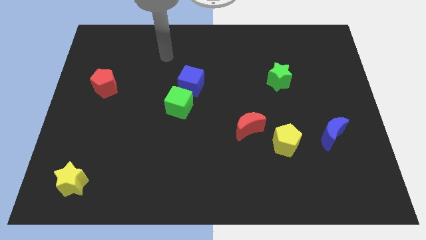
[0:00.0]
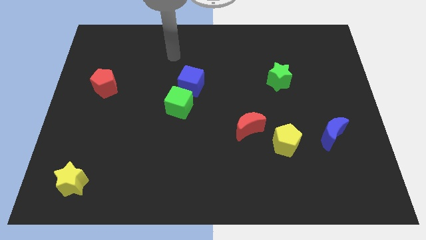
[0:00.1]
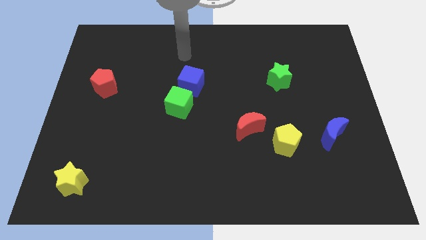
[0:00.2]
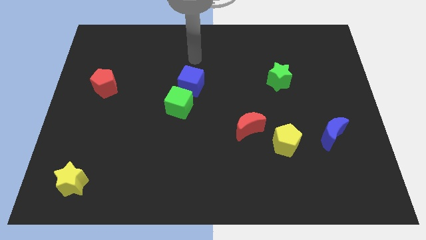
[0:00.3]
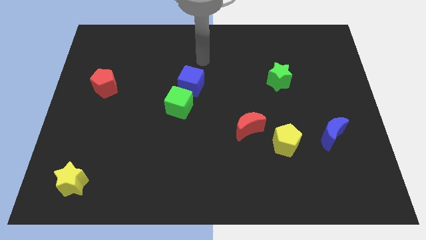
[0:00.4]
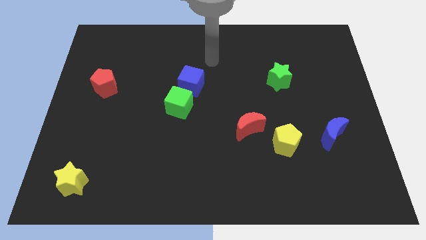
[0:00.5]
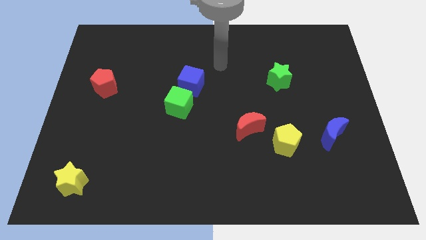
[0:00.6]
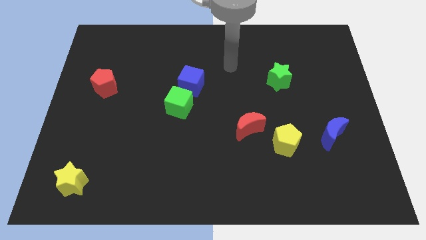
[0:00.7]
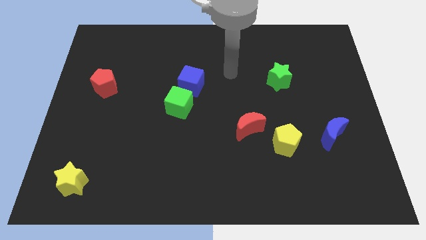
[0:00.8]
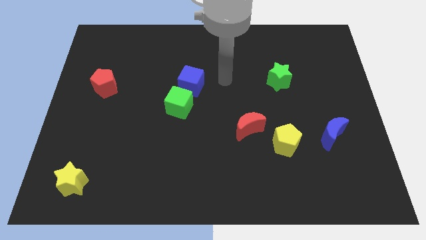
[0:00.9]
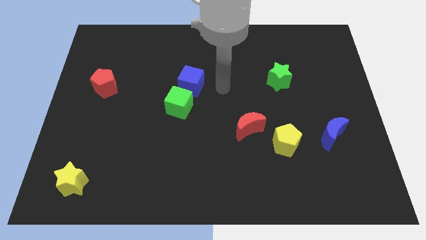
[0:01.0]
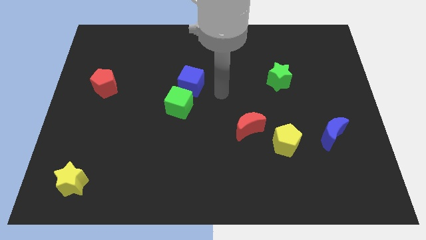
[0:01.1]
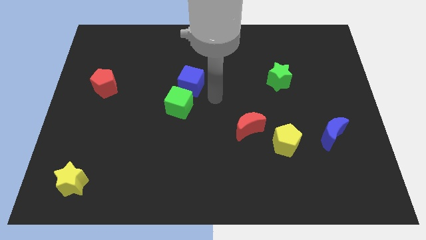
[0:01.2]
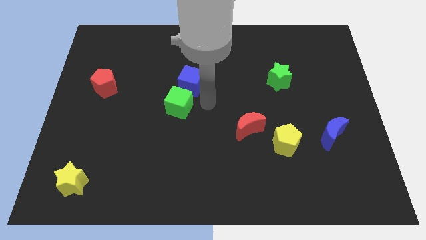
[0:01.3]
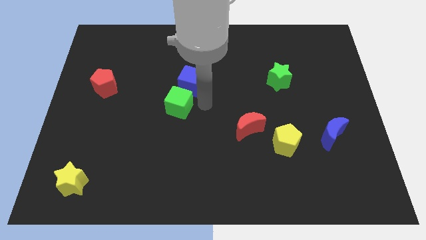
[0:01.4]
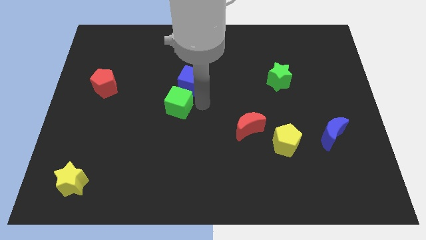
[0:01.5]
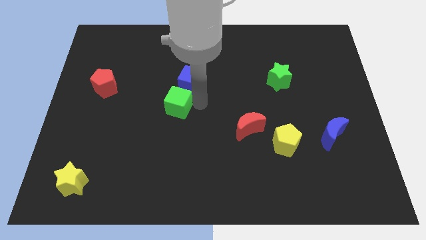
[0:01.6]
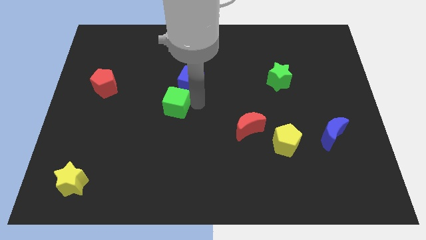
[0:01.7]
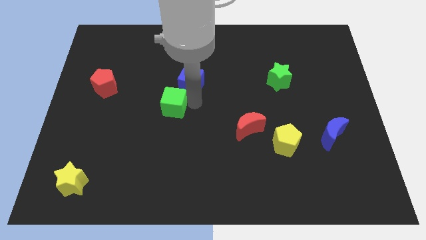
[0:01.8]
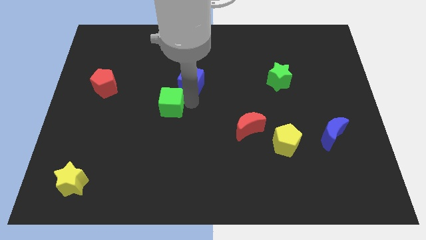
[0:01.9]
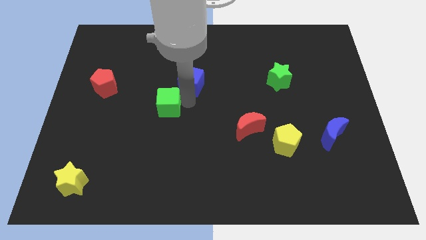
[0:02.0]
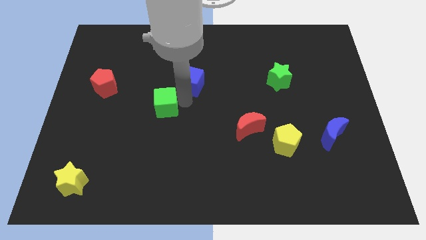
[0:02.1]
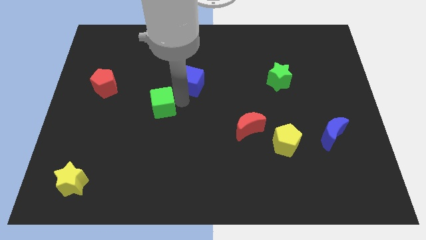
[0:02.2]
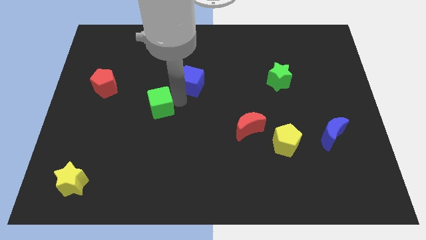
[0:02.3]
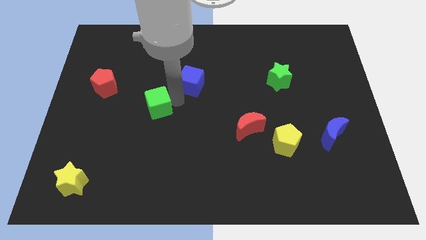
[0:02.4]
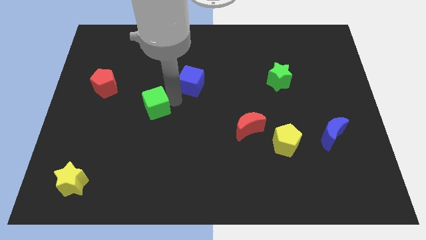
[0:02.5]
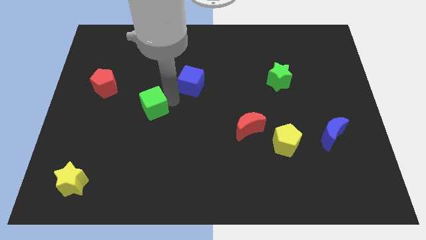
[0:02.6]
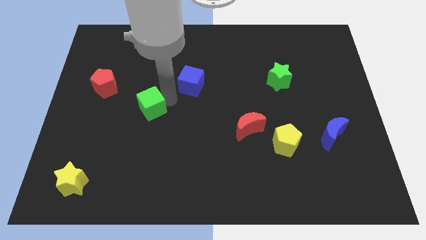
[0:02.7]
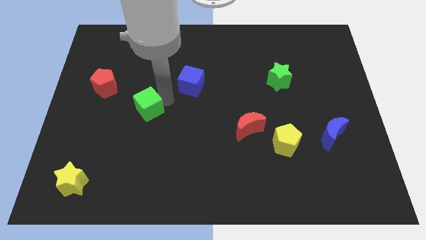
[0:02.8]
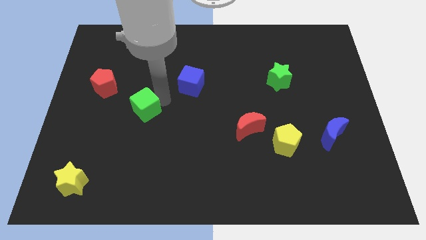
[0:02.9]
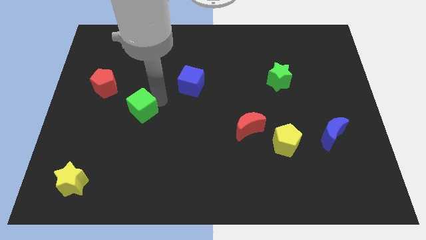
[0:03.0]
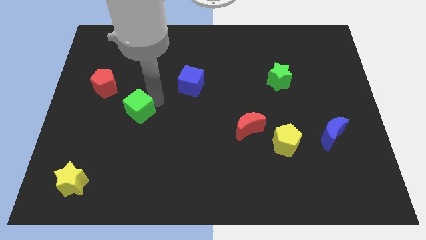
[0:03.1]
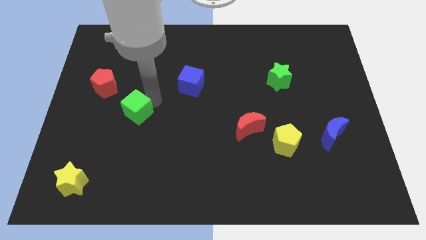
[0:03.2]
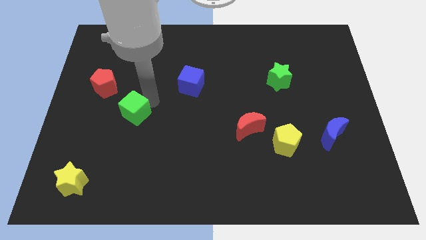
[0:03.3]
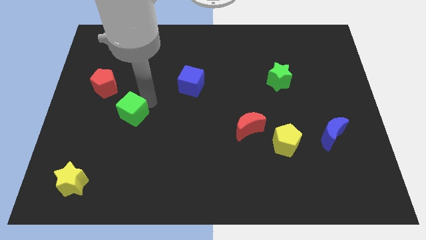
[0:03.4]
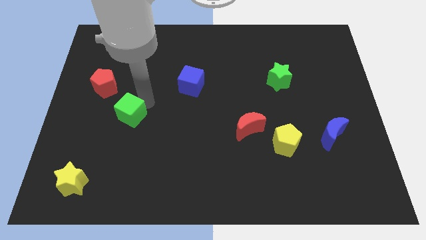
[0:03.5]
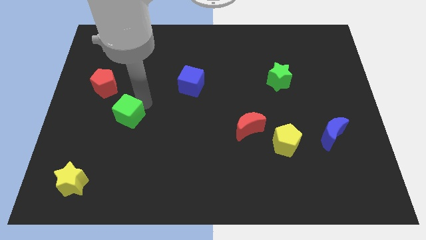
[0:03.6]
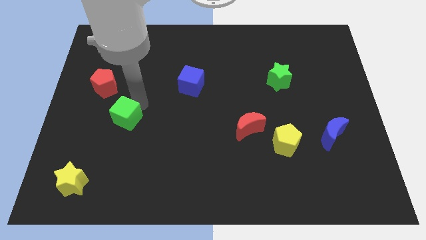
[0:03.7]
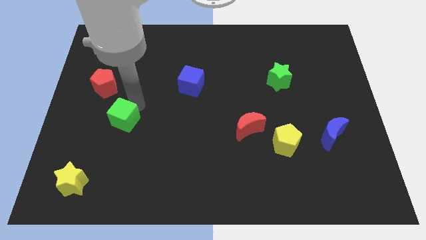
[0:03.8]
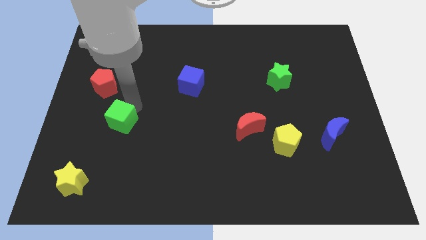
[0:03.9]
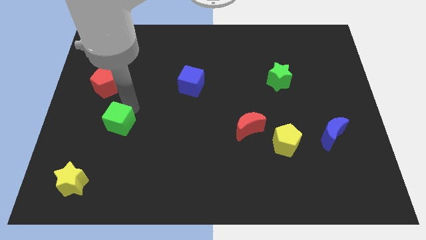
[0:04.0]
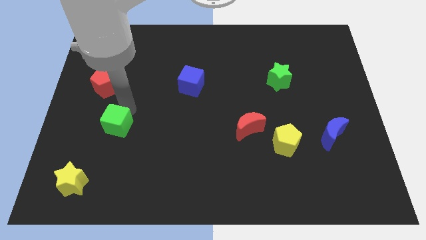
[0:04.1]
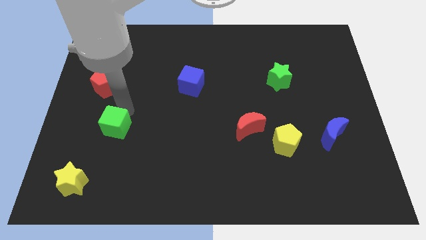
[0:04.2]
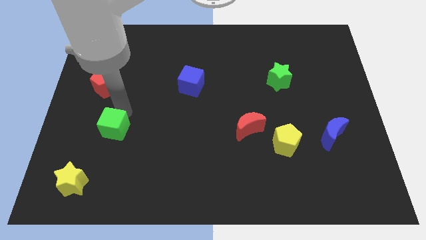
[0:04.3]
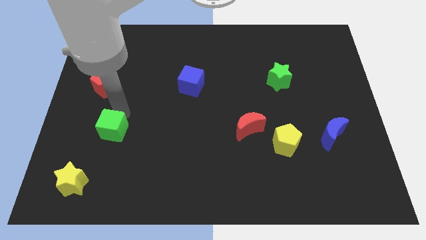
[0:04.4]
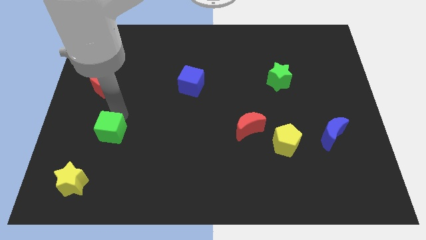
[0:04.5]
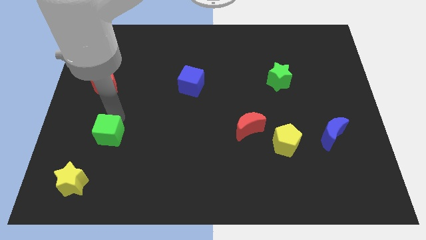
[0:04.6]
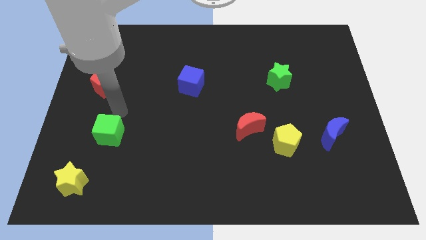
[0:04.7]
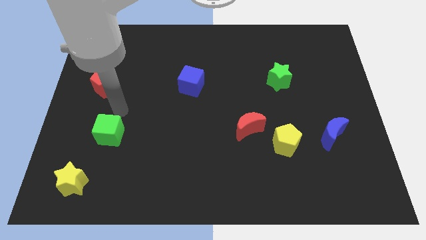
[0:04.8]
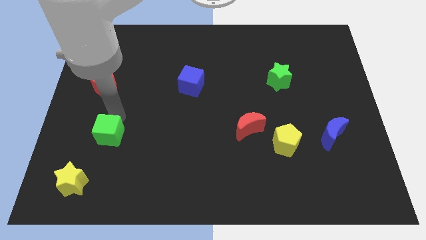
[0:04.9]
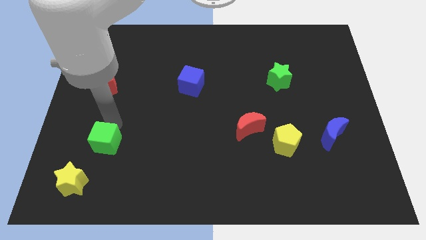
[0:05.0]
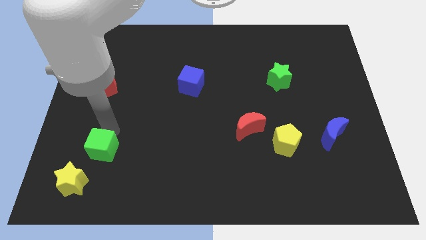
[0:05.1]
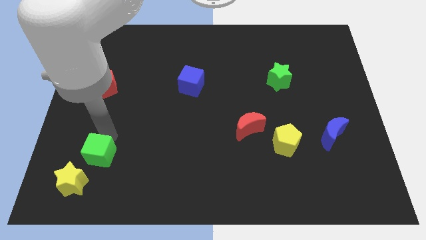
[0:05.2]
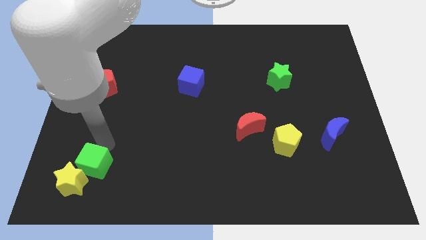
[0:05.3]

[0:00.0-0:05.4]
move the green cube close to the yellow star

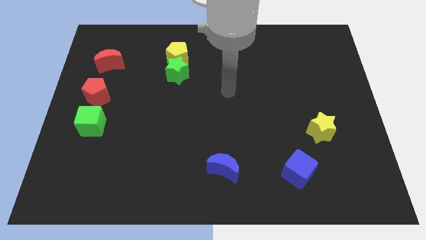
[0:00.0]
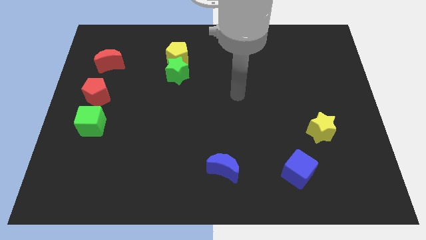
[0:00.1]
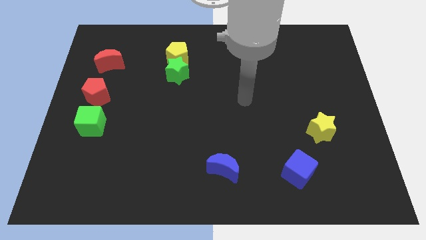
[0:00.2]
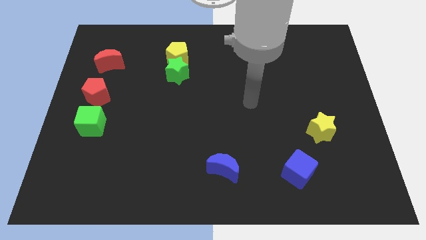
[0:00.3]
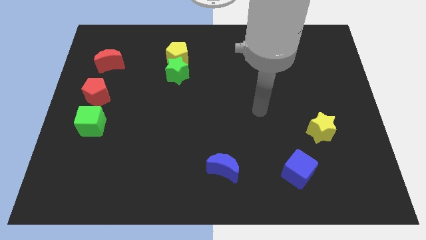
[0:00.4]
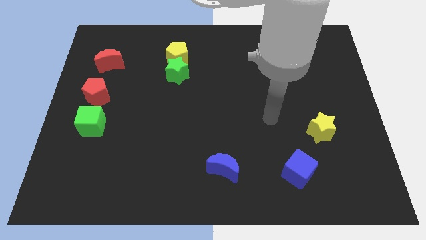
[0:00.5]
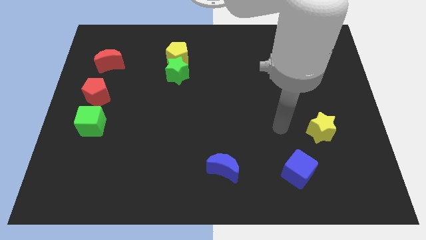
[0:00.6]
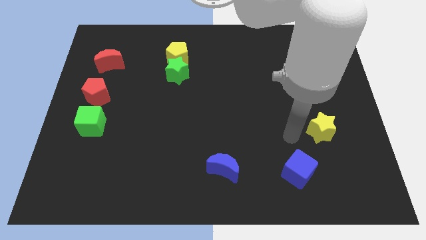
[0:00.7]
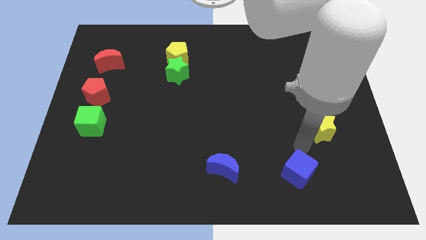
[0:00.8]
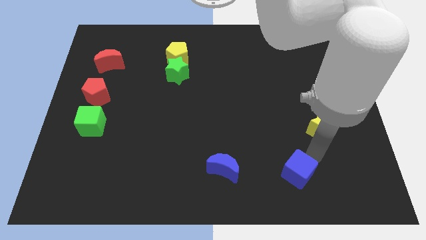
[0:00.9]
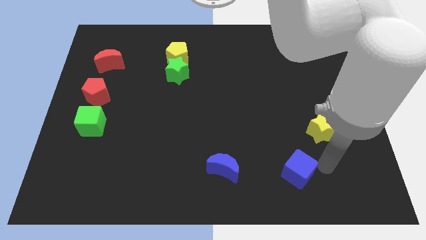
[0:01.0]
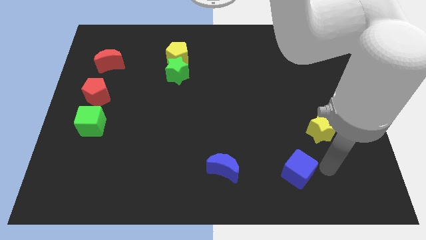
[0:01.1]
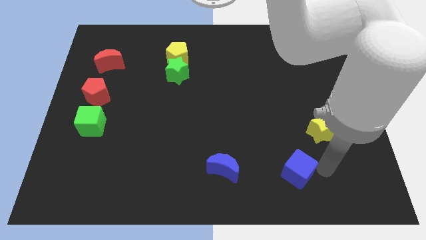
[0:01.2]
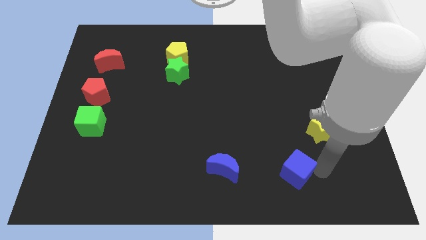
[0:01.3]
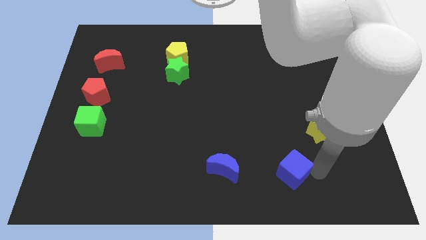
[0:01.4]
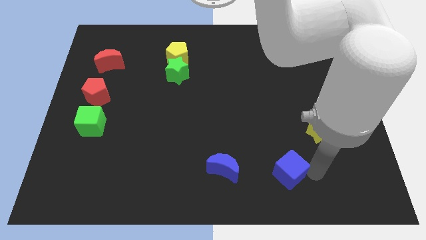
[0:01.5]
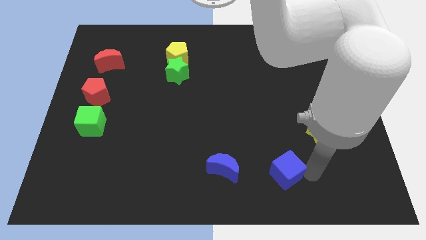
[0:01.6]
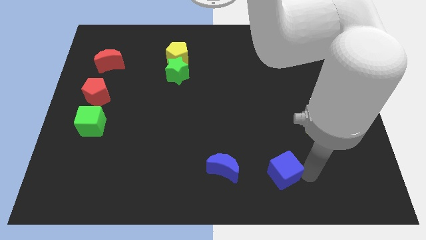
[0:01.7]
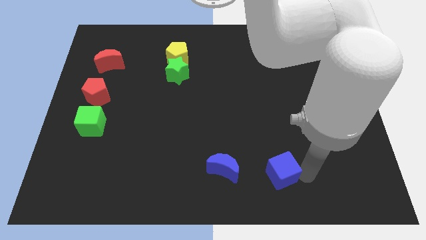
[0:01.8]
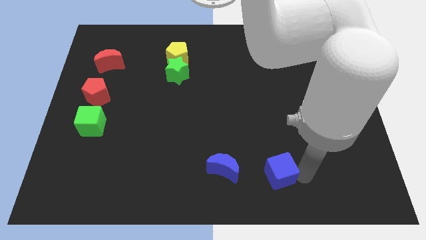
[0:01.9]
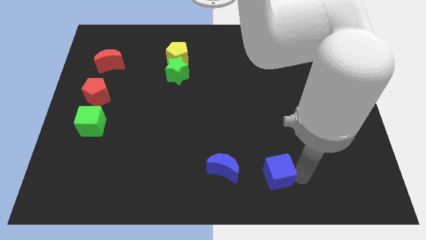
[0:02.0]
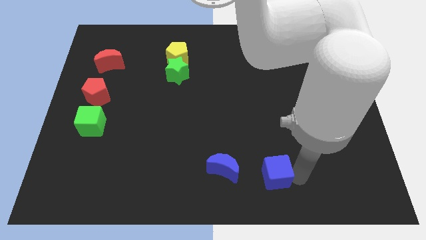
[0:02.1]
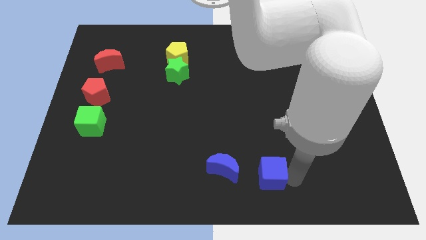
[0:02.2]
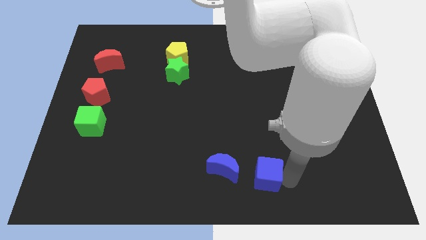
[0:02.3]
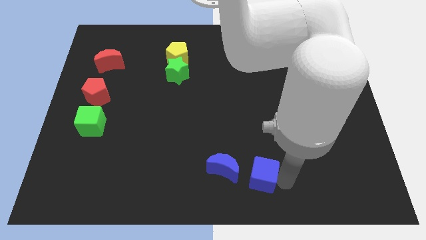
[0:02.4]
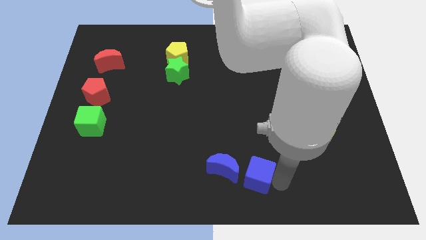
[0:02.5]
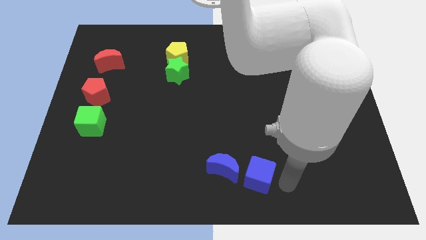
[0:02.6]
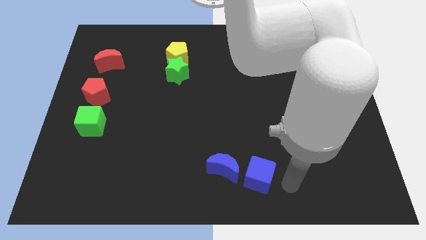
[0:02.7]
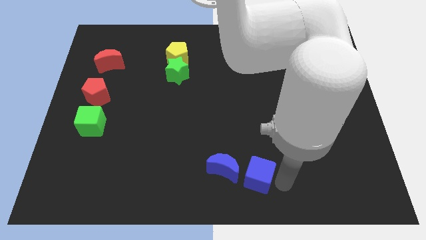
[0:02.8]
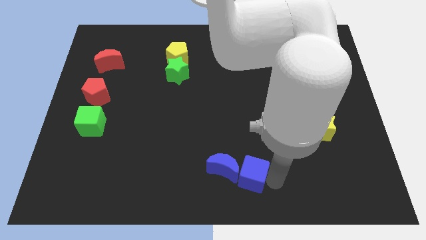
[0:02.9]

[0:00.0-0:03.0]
move the blue cube close to the blue moon
